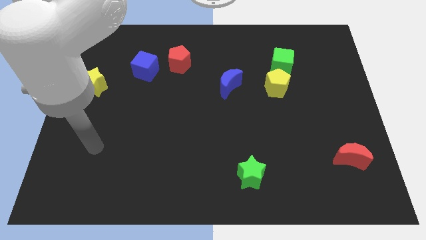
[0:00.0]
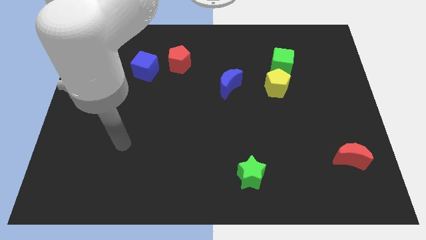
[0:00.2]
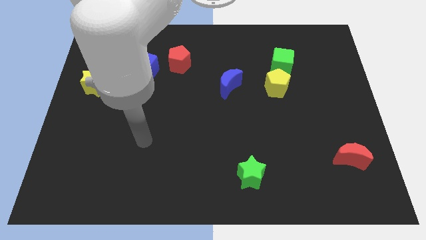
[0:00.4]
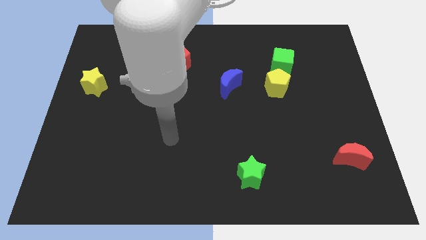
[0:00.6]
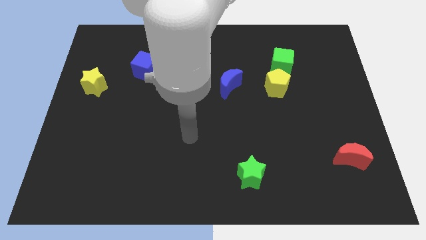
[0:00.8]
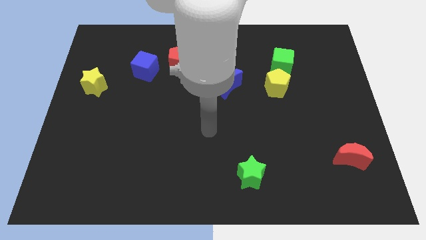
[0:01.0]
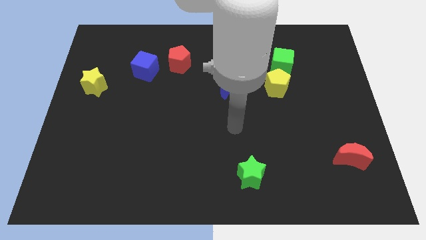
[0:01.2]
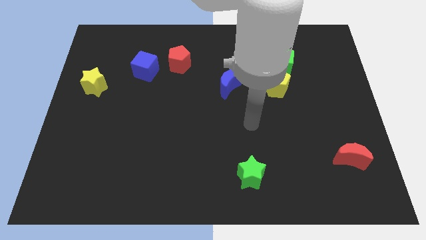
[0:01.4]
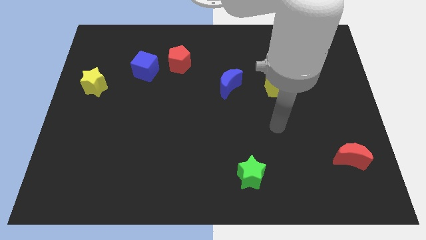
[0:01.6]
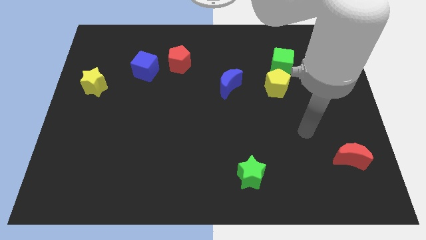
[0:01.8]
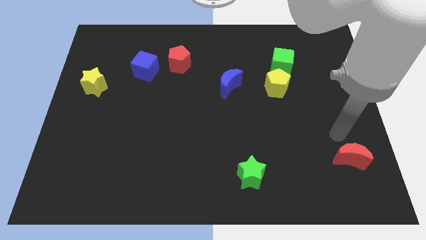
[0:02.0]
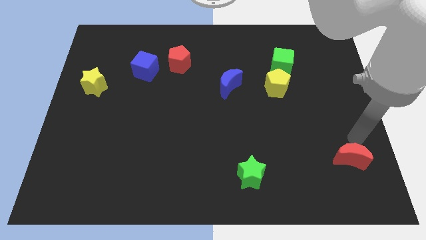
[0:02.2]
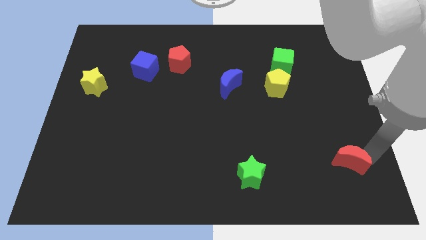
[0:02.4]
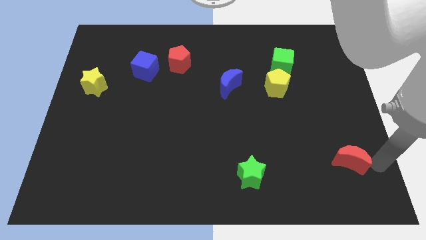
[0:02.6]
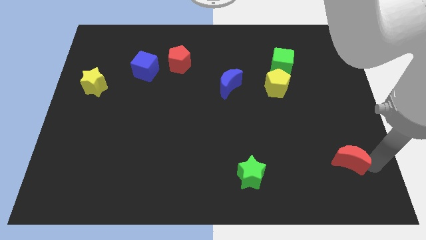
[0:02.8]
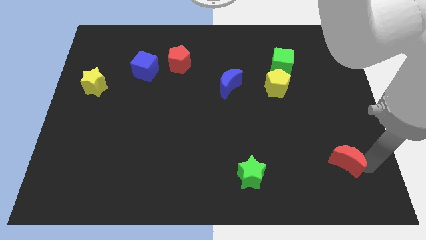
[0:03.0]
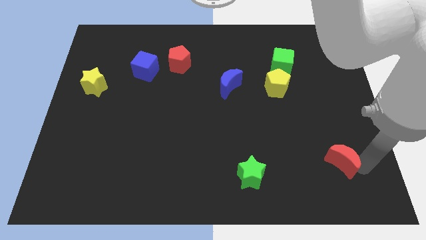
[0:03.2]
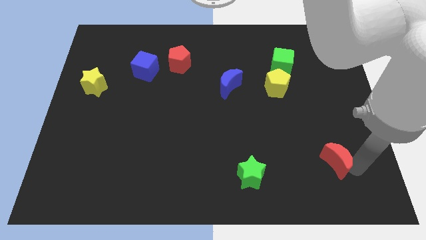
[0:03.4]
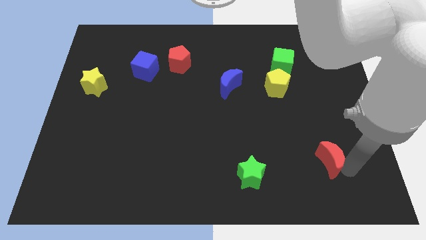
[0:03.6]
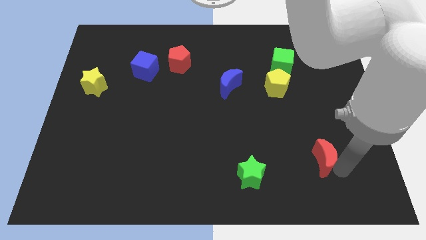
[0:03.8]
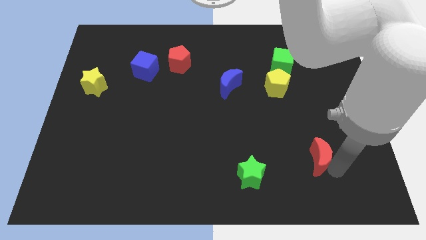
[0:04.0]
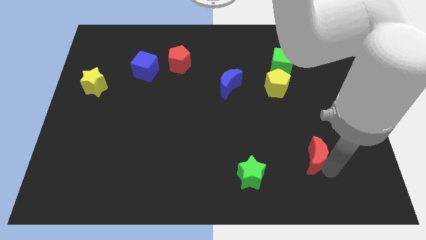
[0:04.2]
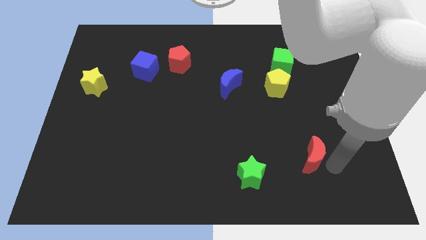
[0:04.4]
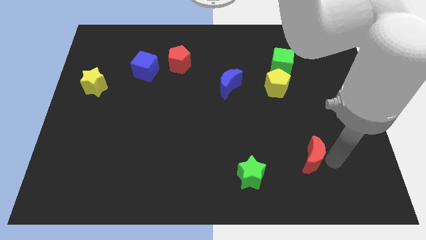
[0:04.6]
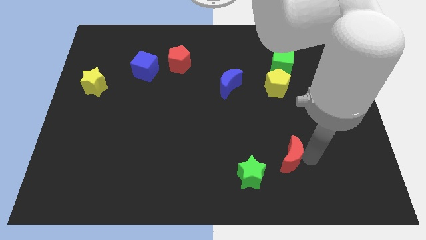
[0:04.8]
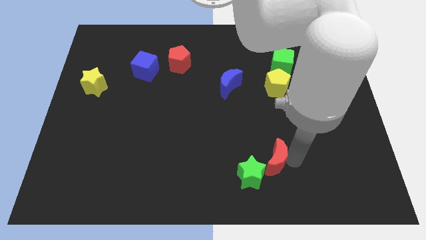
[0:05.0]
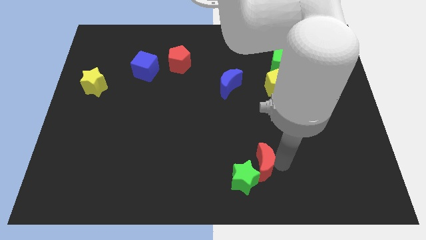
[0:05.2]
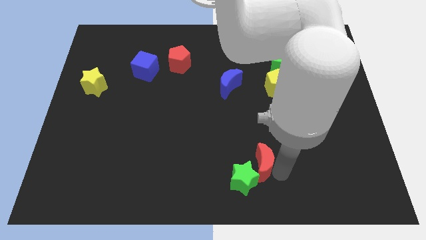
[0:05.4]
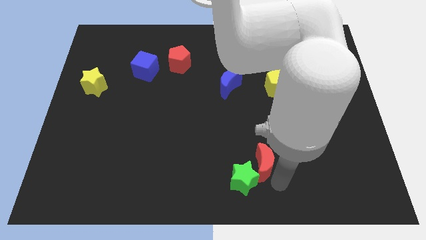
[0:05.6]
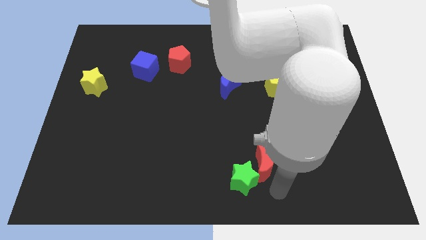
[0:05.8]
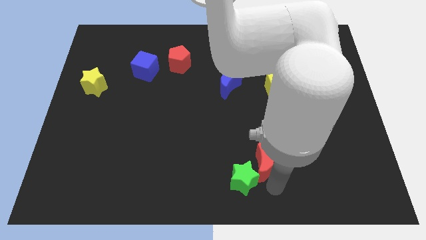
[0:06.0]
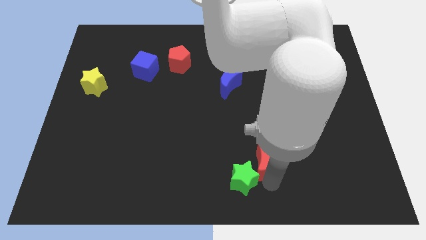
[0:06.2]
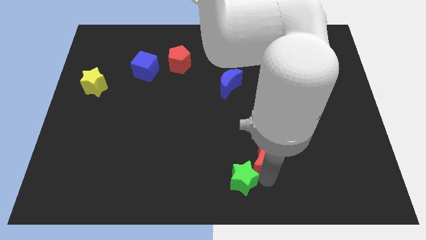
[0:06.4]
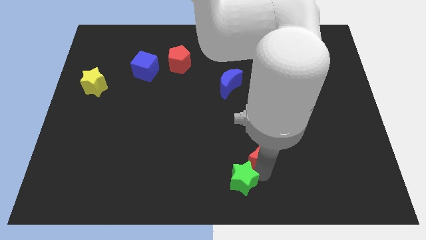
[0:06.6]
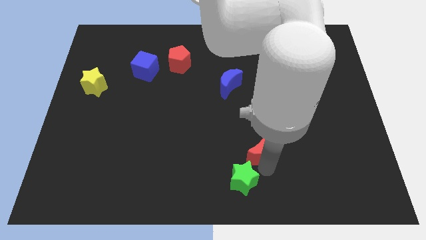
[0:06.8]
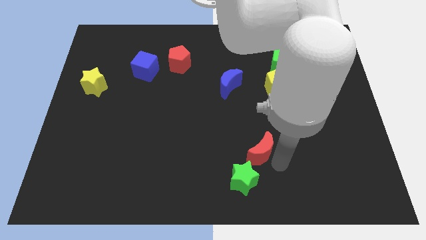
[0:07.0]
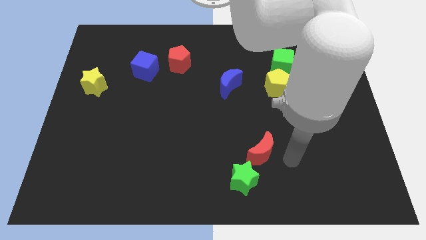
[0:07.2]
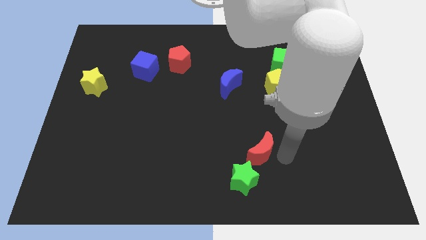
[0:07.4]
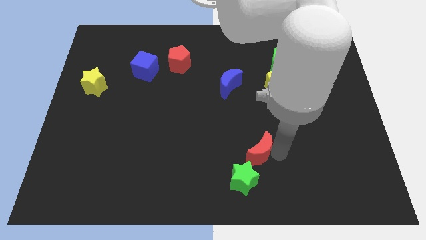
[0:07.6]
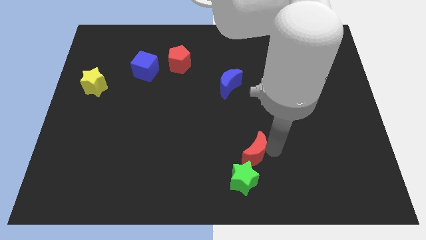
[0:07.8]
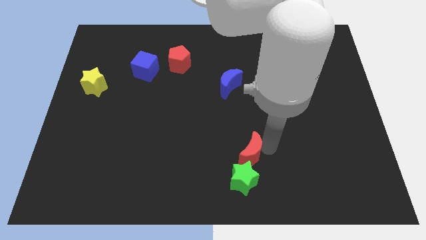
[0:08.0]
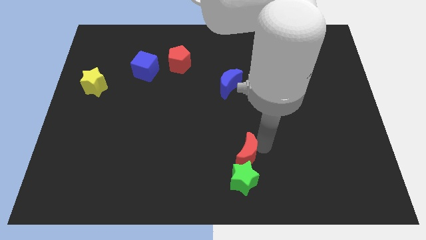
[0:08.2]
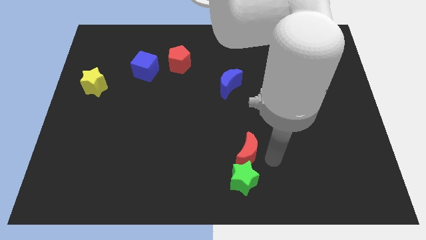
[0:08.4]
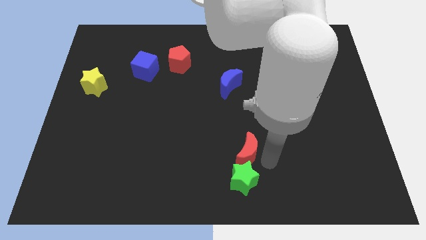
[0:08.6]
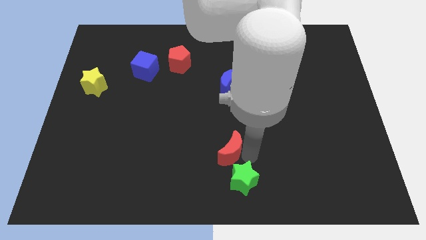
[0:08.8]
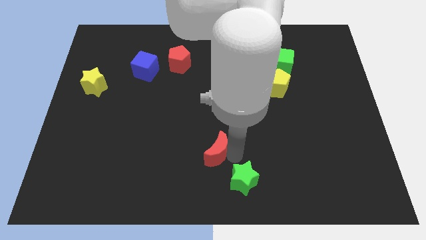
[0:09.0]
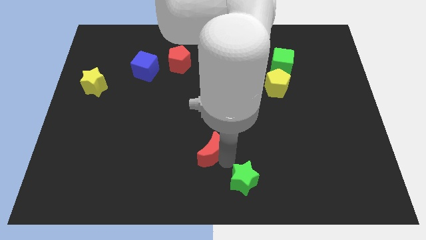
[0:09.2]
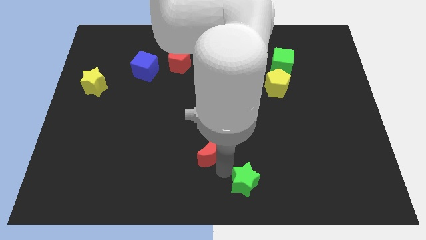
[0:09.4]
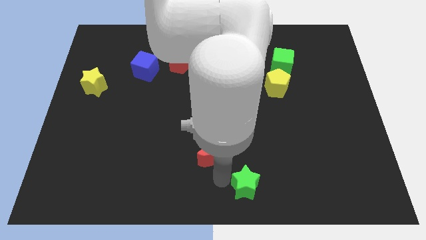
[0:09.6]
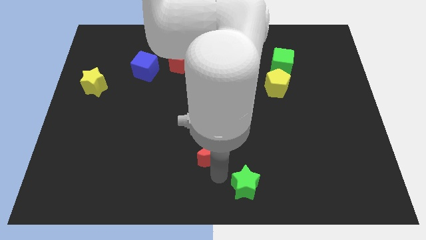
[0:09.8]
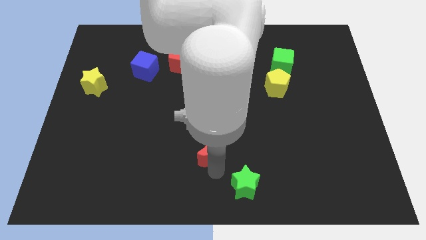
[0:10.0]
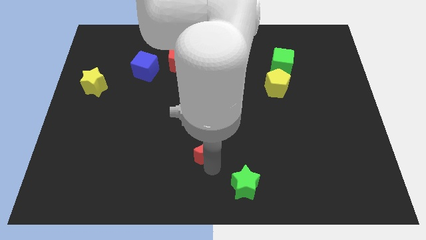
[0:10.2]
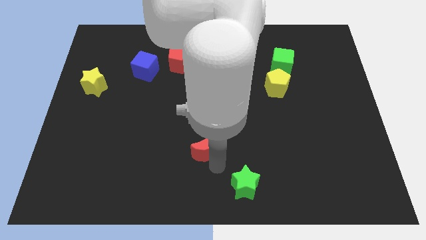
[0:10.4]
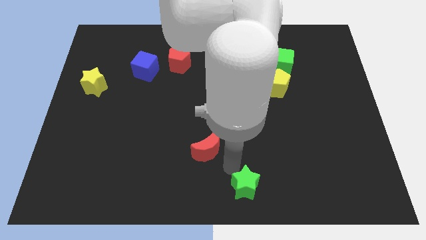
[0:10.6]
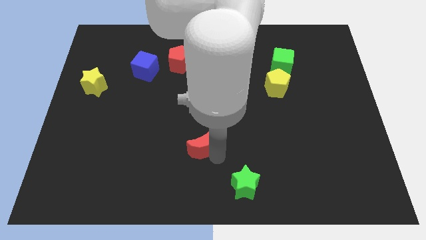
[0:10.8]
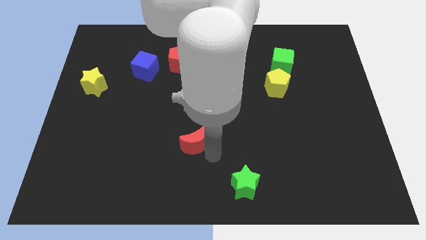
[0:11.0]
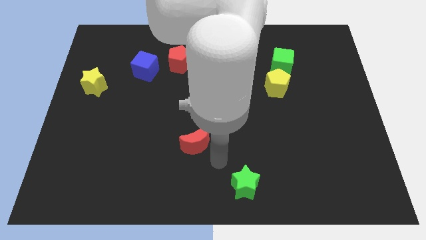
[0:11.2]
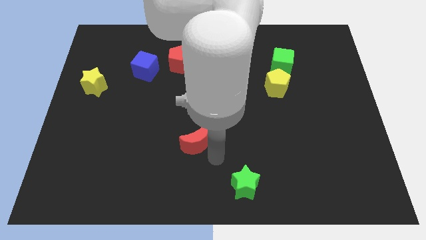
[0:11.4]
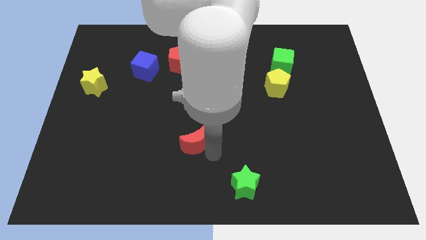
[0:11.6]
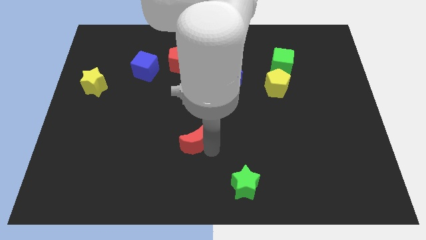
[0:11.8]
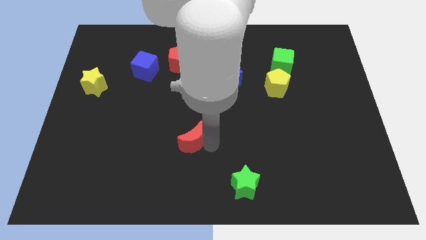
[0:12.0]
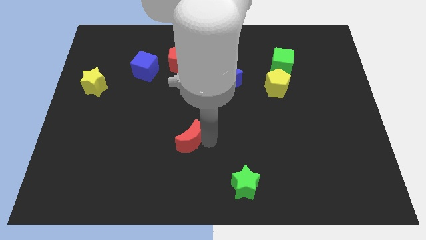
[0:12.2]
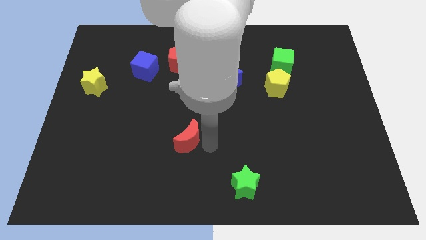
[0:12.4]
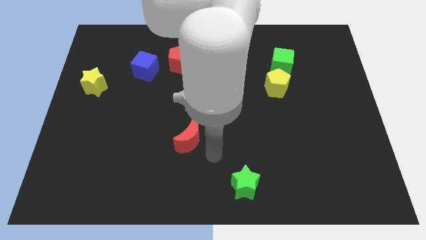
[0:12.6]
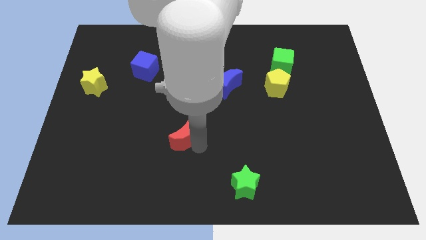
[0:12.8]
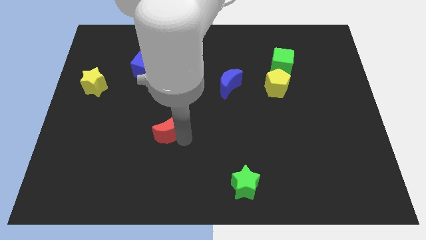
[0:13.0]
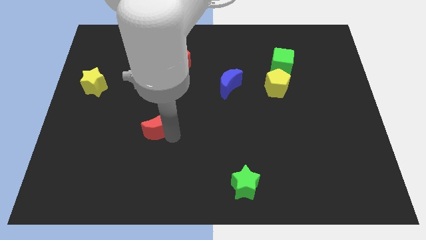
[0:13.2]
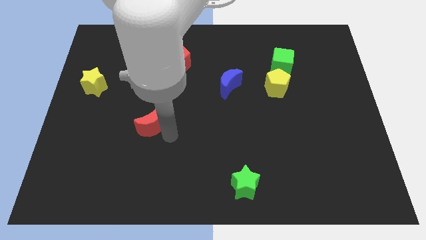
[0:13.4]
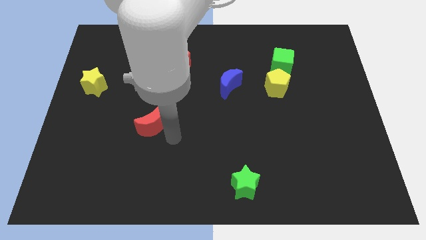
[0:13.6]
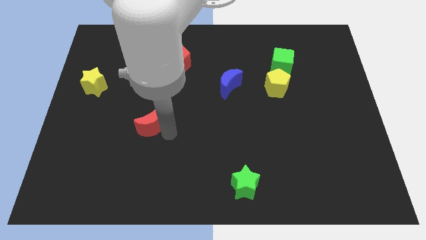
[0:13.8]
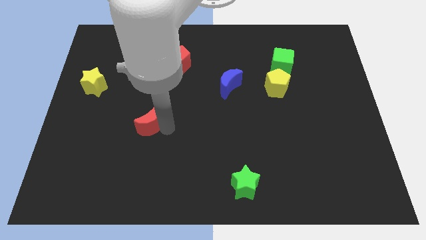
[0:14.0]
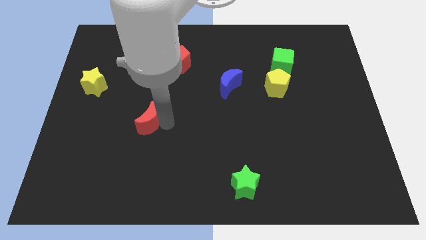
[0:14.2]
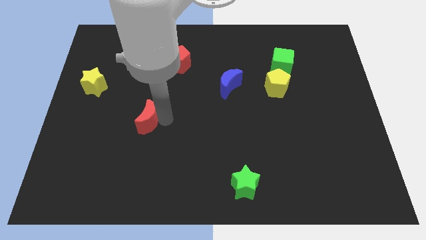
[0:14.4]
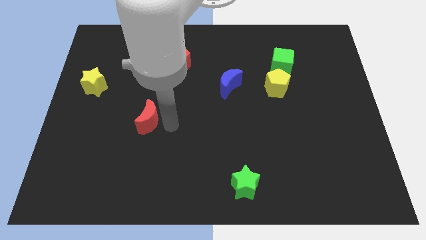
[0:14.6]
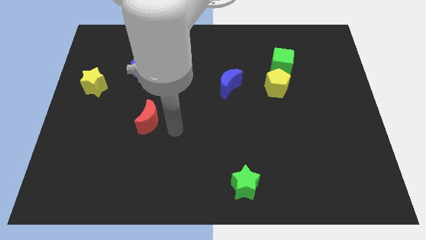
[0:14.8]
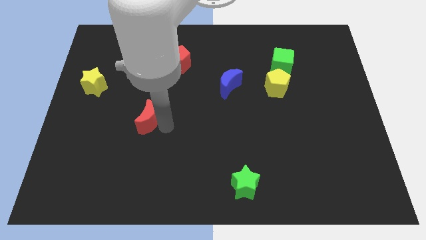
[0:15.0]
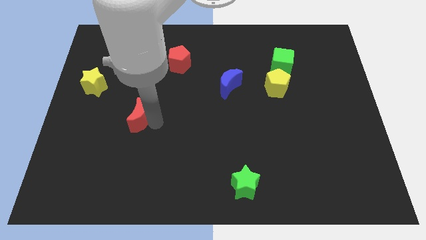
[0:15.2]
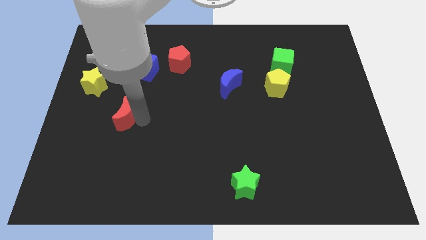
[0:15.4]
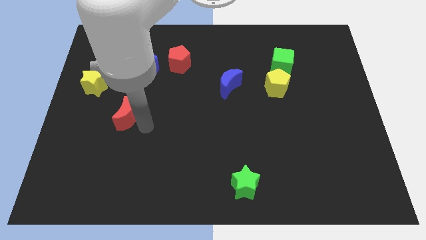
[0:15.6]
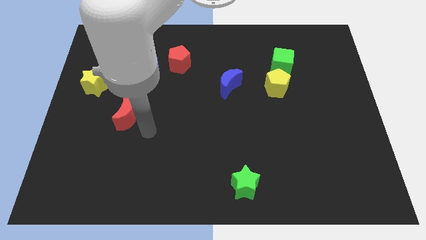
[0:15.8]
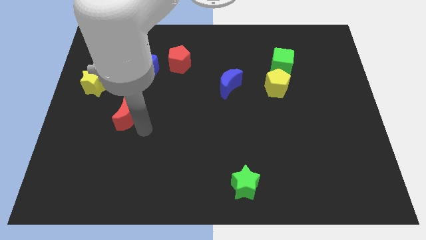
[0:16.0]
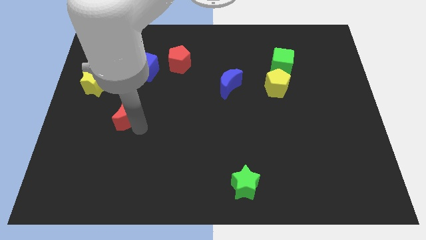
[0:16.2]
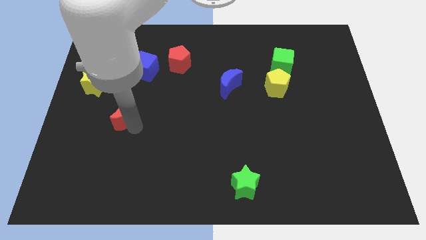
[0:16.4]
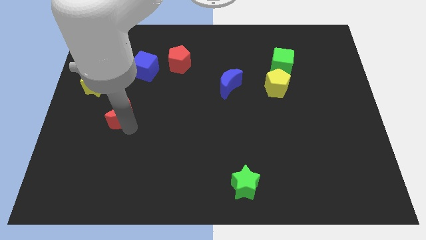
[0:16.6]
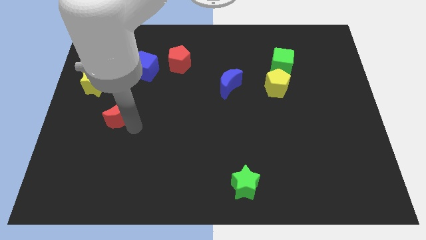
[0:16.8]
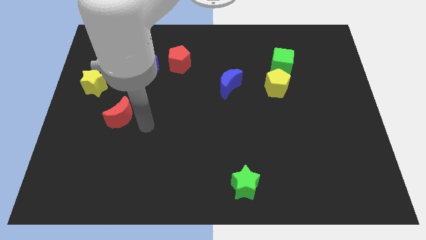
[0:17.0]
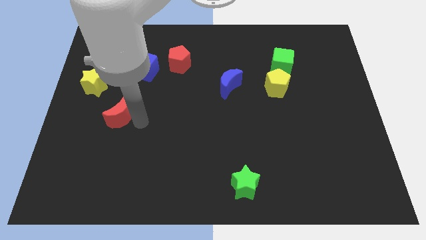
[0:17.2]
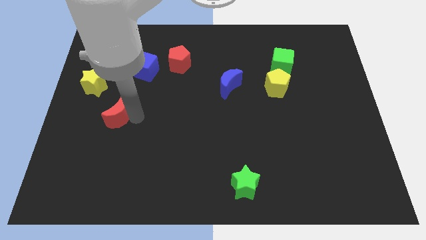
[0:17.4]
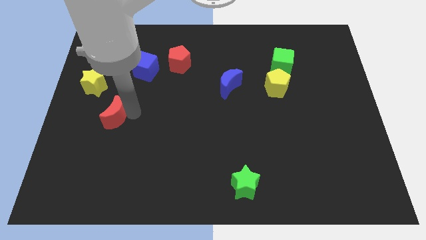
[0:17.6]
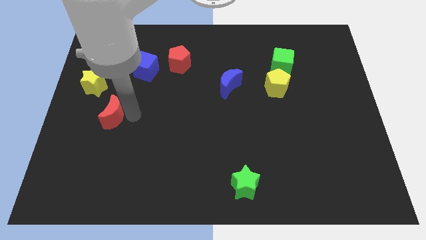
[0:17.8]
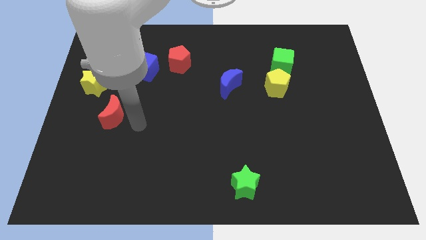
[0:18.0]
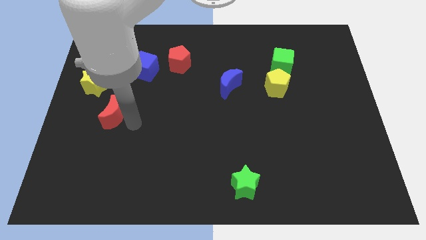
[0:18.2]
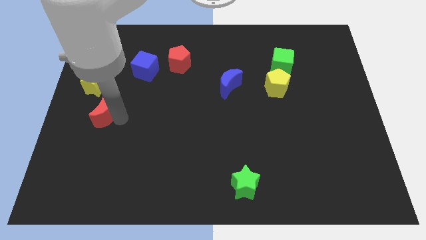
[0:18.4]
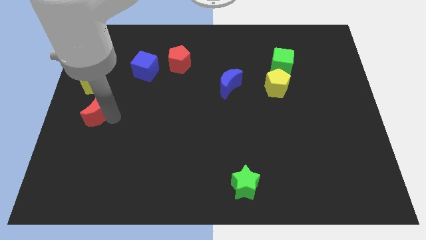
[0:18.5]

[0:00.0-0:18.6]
slide the red moon to the left side
